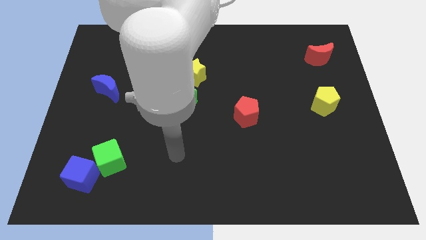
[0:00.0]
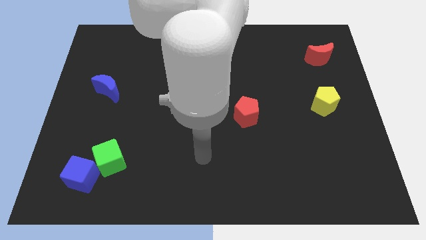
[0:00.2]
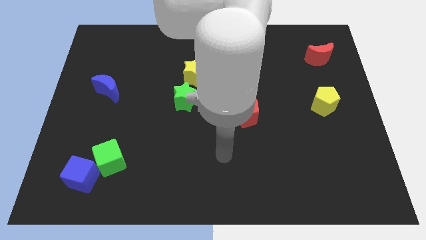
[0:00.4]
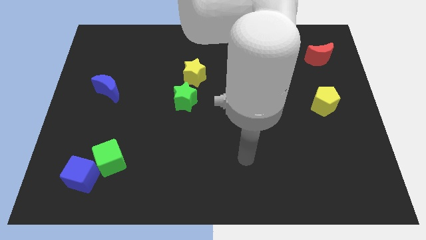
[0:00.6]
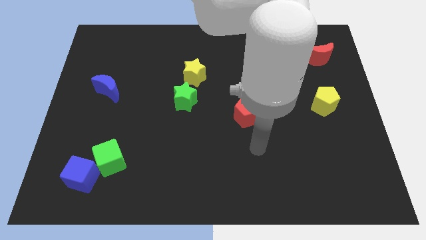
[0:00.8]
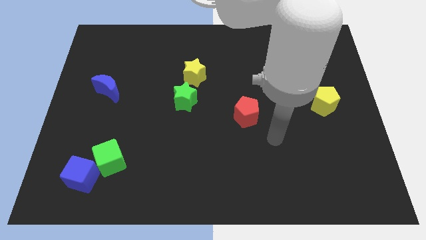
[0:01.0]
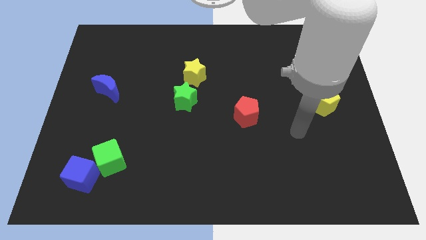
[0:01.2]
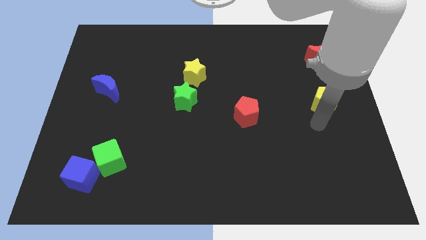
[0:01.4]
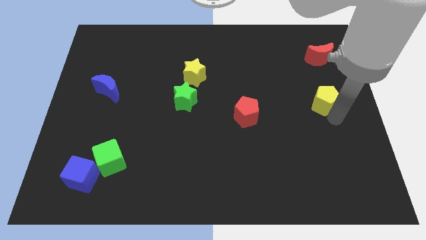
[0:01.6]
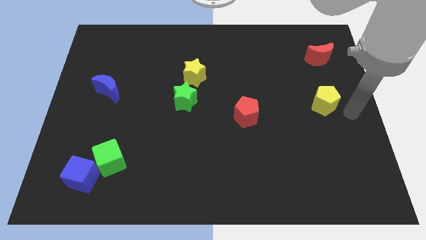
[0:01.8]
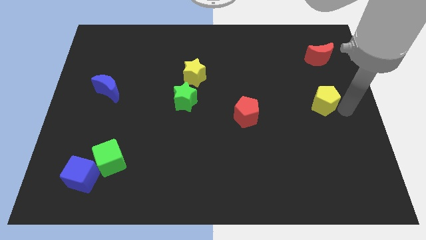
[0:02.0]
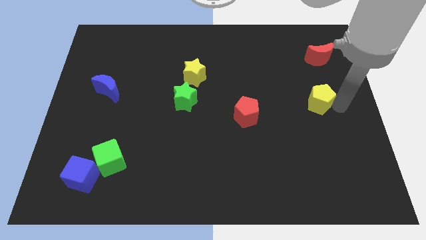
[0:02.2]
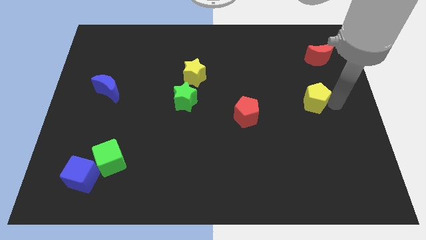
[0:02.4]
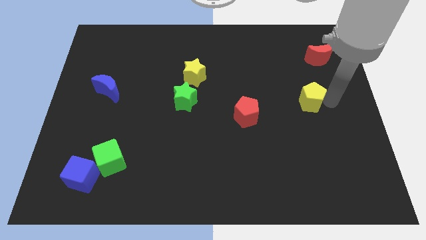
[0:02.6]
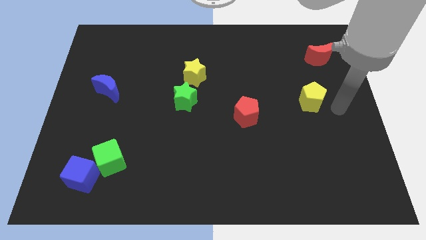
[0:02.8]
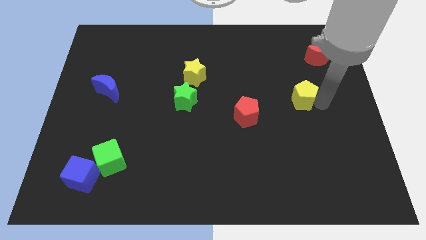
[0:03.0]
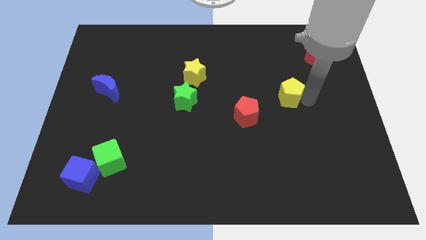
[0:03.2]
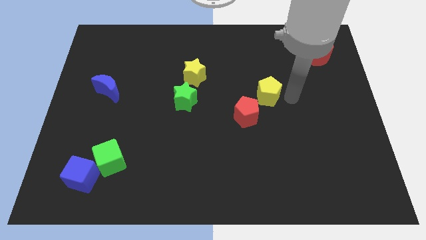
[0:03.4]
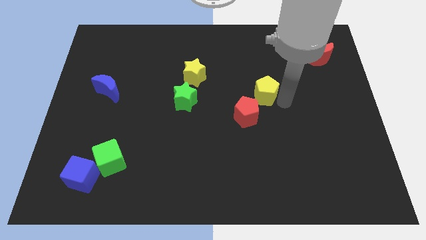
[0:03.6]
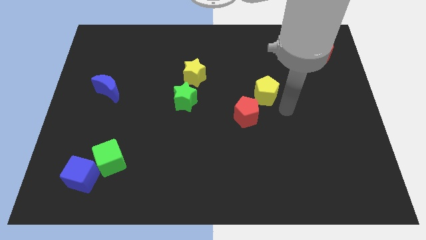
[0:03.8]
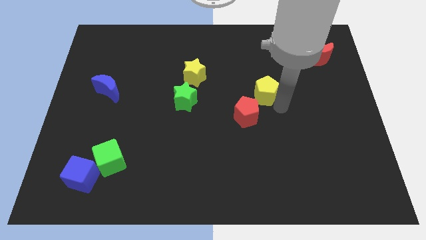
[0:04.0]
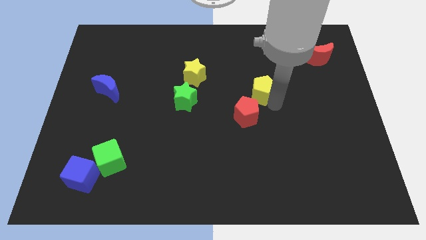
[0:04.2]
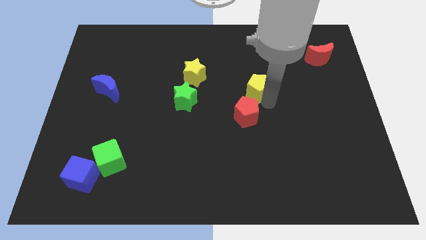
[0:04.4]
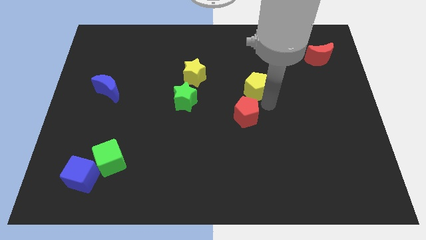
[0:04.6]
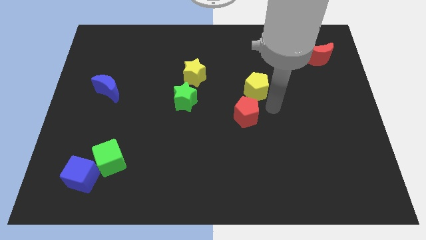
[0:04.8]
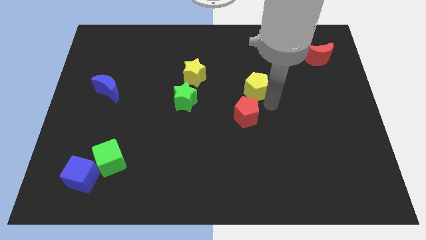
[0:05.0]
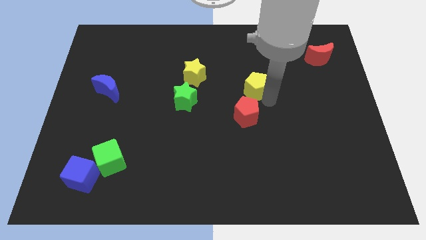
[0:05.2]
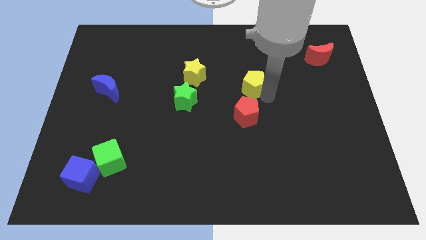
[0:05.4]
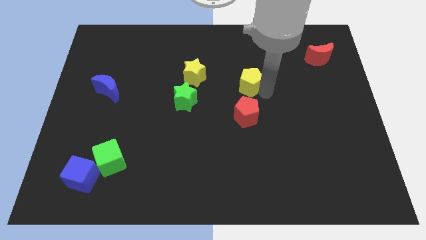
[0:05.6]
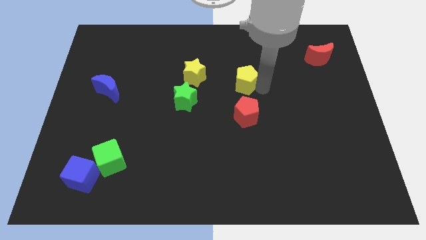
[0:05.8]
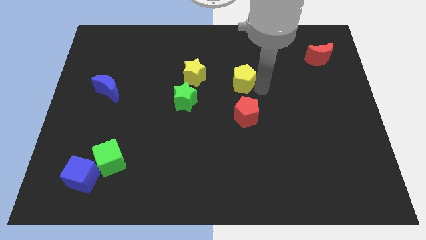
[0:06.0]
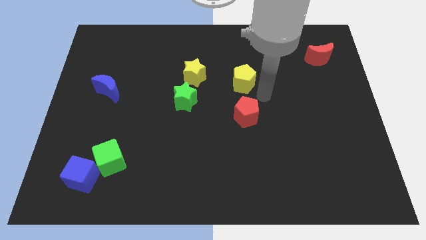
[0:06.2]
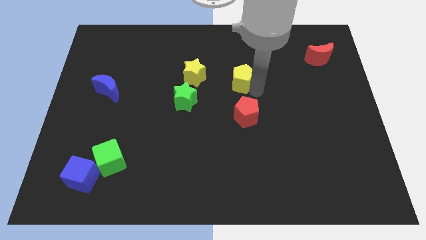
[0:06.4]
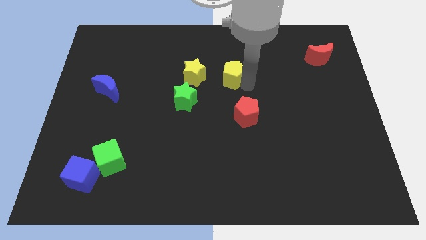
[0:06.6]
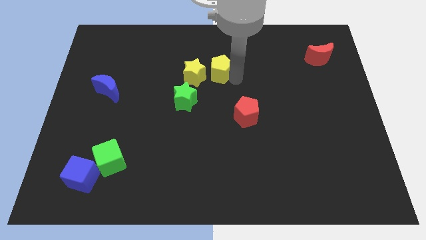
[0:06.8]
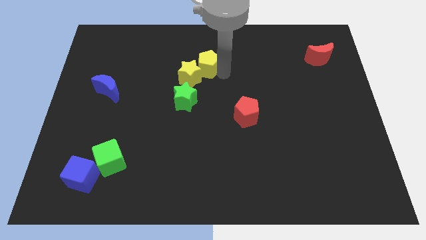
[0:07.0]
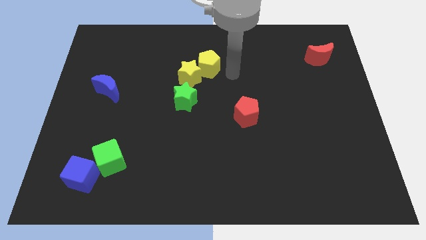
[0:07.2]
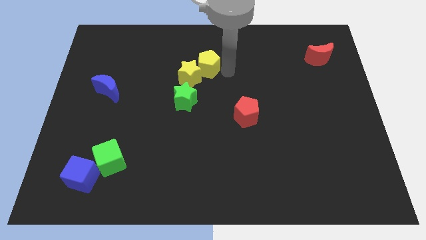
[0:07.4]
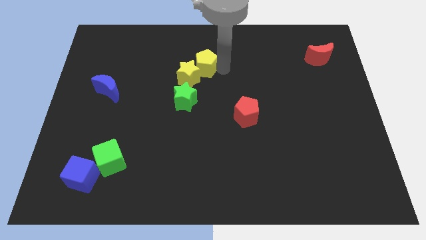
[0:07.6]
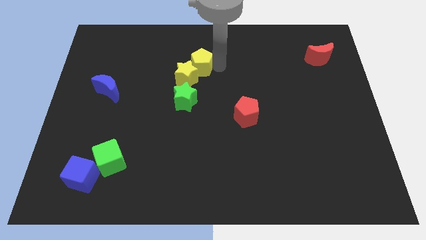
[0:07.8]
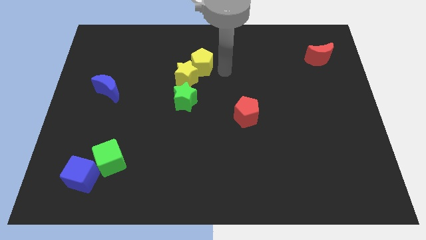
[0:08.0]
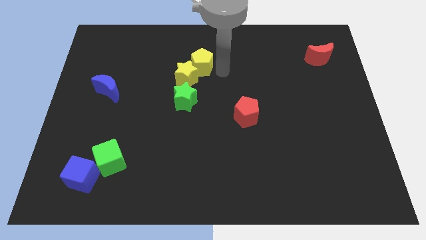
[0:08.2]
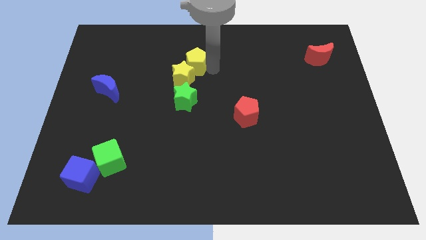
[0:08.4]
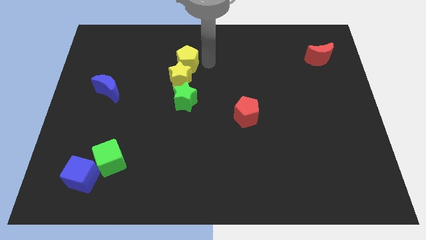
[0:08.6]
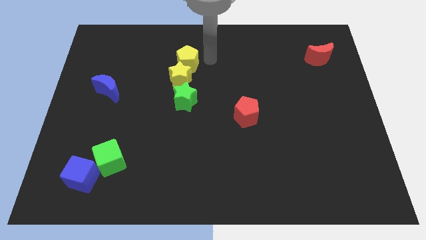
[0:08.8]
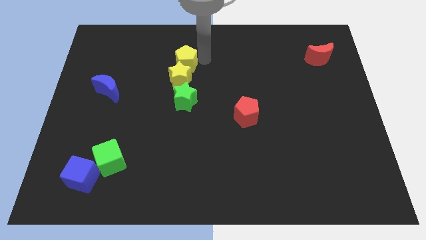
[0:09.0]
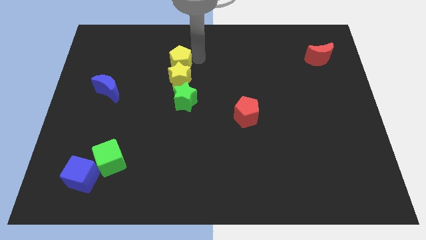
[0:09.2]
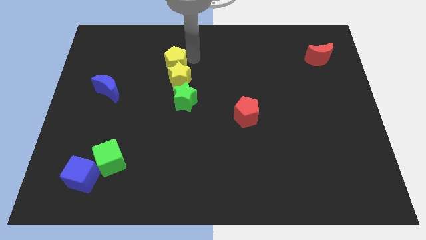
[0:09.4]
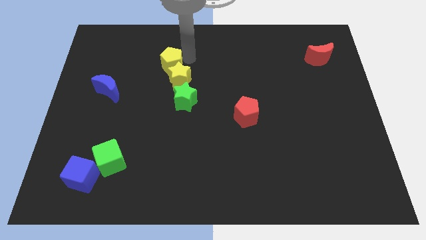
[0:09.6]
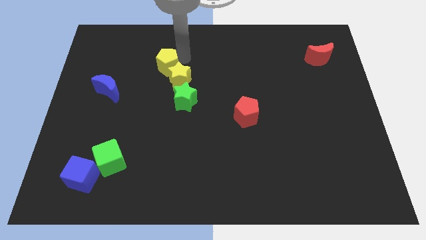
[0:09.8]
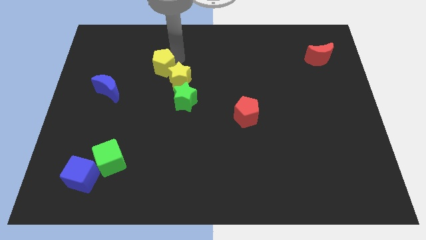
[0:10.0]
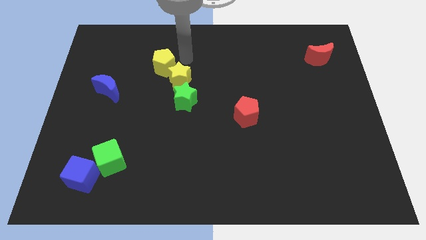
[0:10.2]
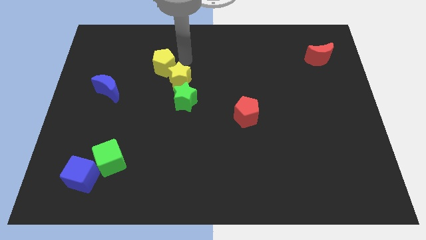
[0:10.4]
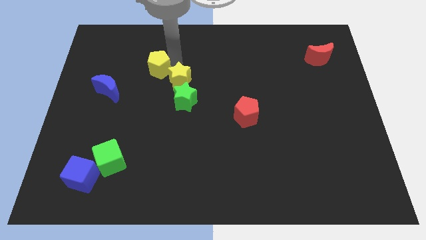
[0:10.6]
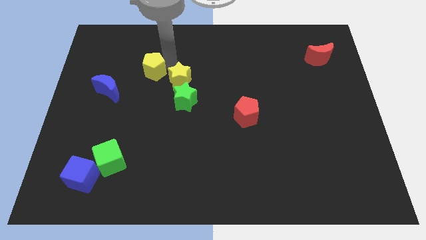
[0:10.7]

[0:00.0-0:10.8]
put the yellow pentagon diagonally up and to the right of the blue moon

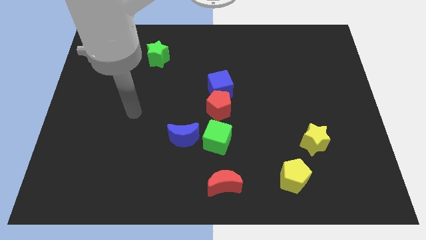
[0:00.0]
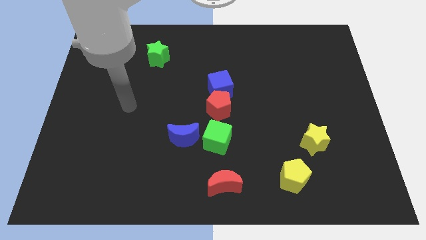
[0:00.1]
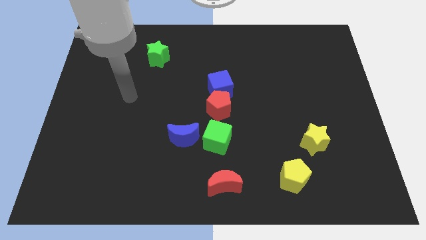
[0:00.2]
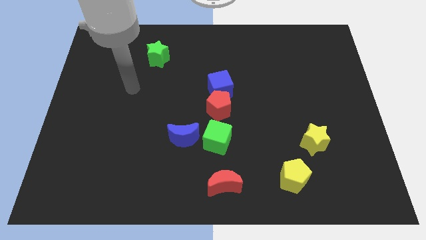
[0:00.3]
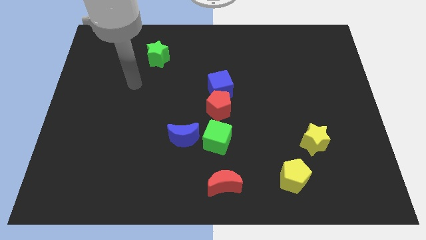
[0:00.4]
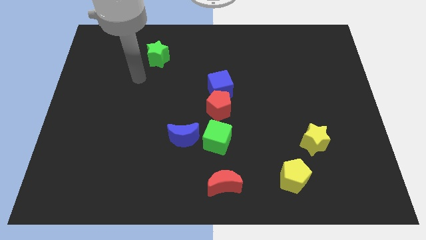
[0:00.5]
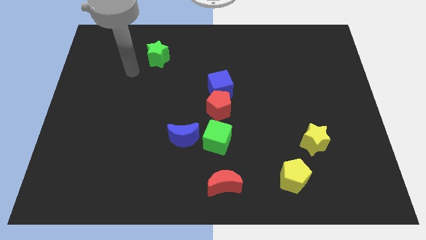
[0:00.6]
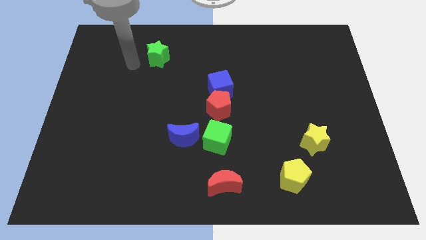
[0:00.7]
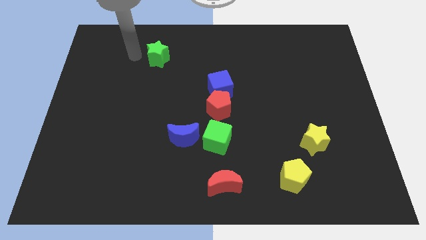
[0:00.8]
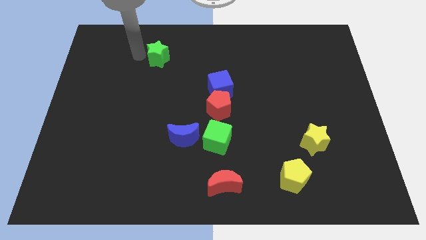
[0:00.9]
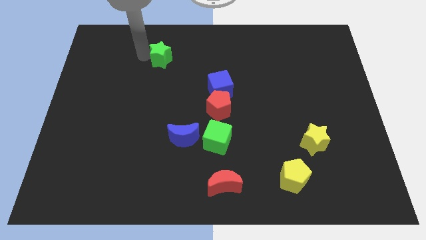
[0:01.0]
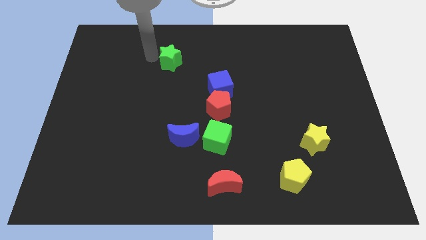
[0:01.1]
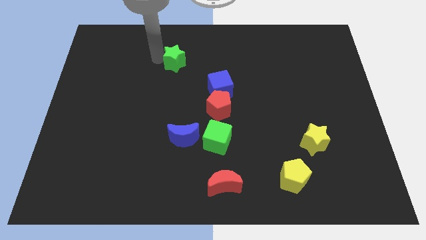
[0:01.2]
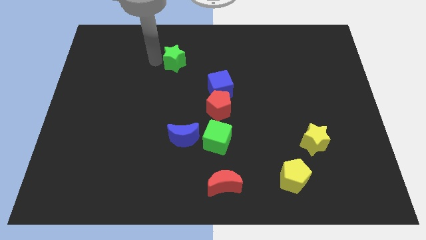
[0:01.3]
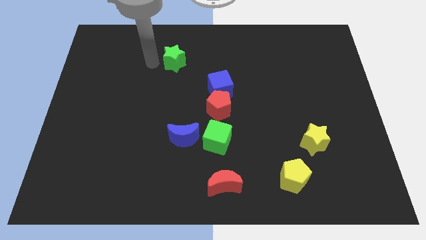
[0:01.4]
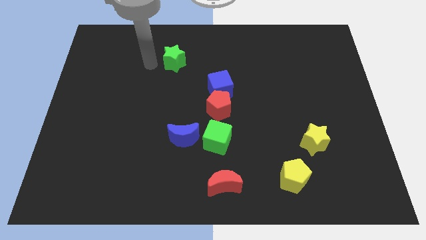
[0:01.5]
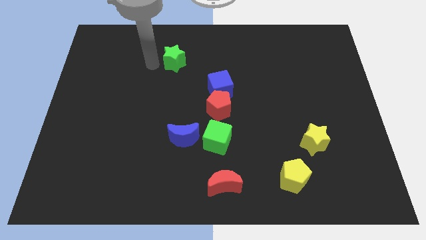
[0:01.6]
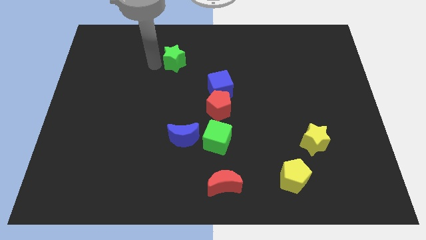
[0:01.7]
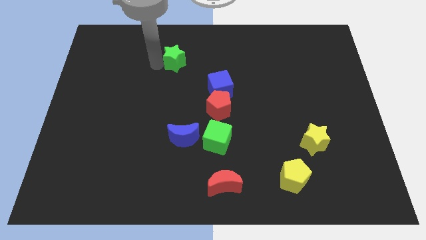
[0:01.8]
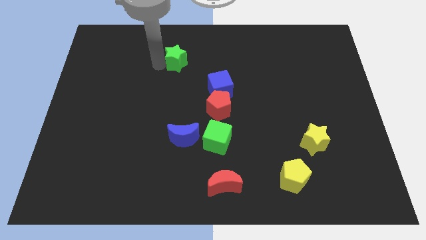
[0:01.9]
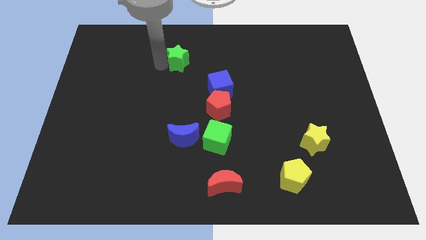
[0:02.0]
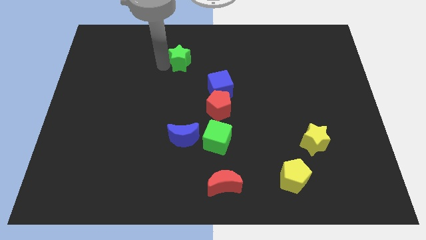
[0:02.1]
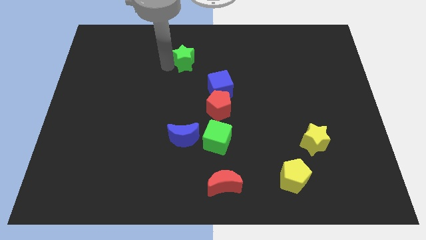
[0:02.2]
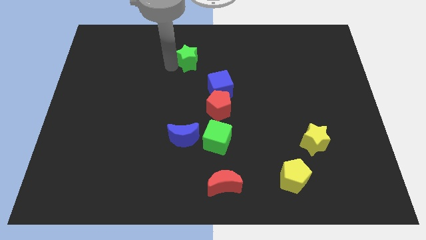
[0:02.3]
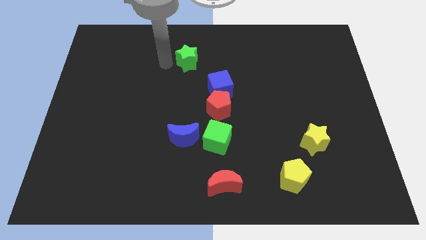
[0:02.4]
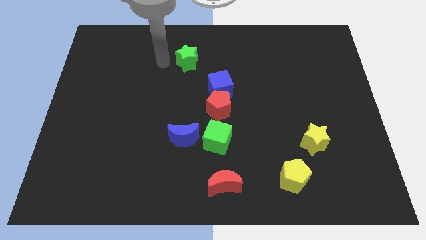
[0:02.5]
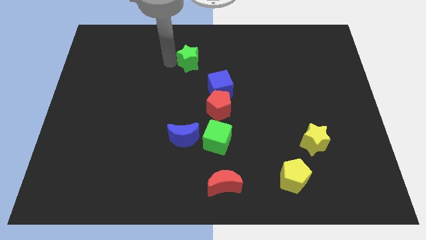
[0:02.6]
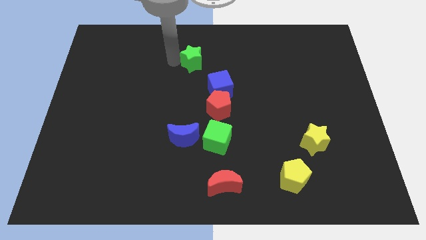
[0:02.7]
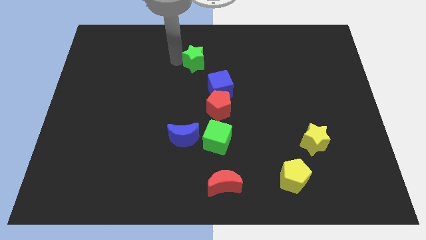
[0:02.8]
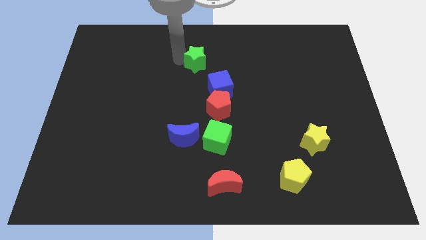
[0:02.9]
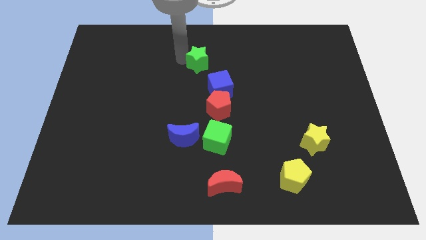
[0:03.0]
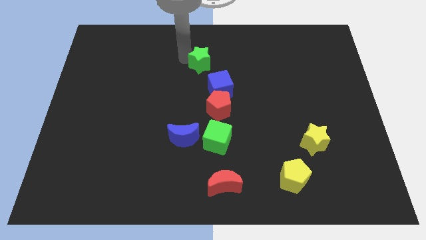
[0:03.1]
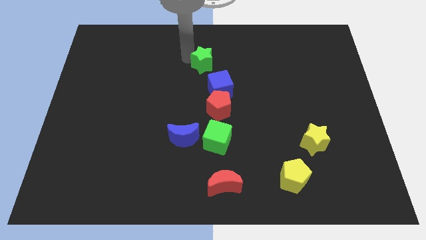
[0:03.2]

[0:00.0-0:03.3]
move the green star to the top of the blue cube
